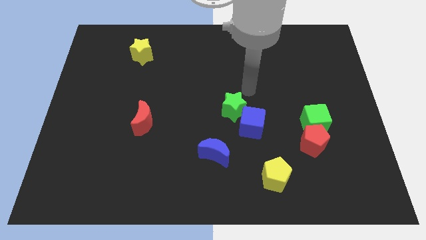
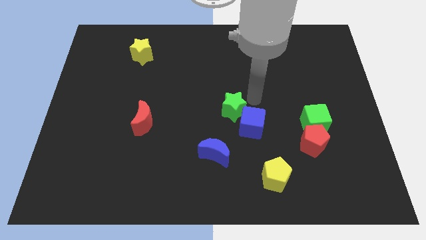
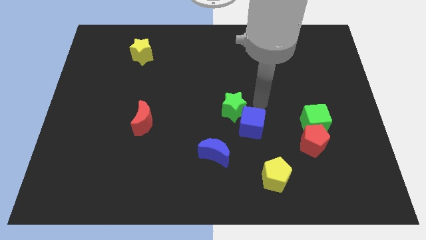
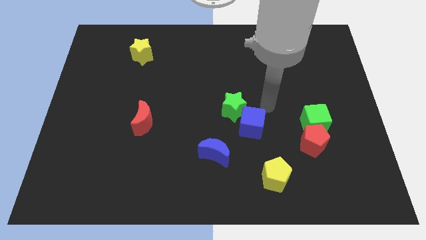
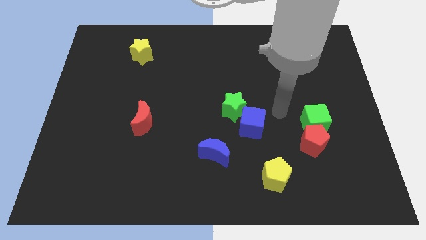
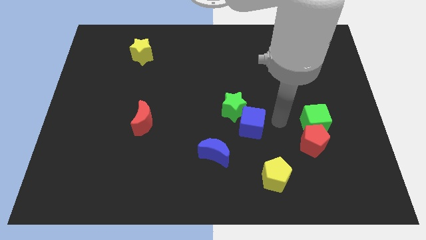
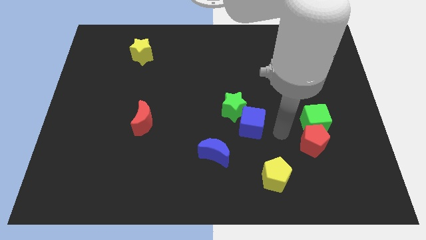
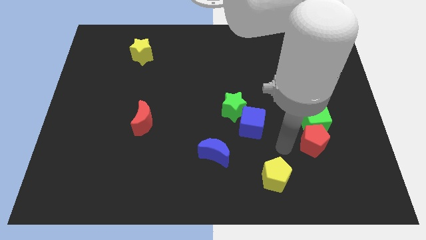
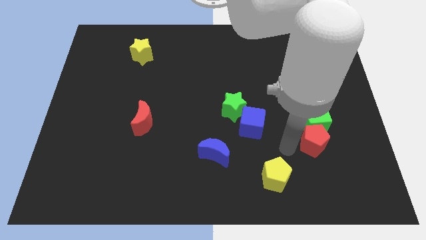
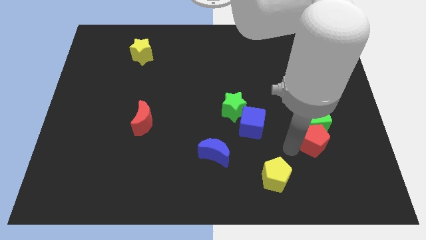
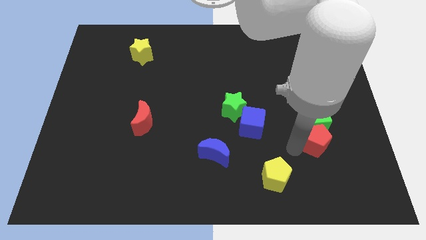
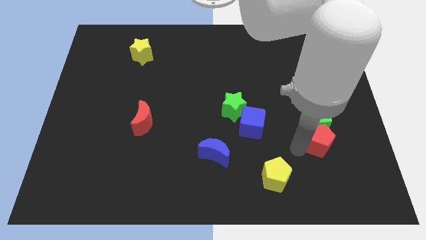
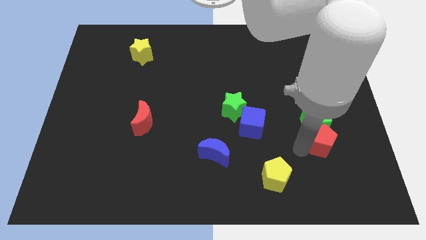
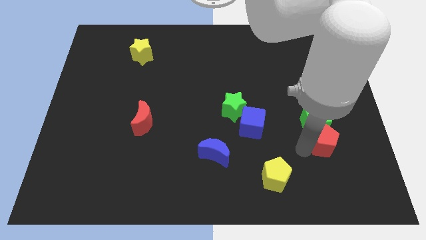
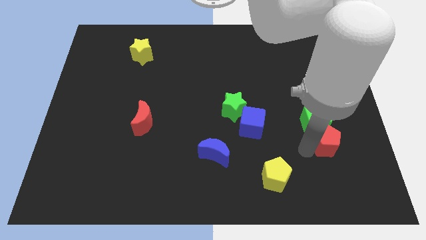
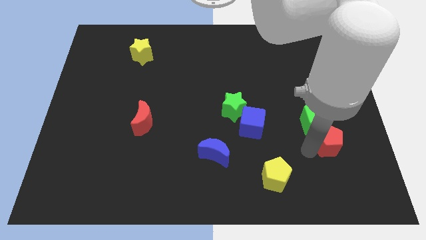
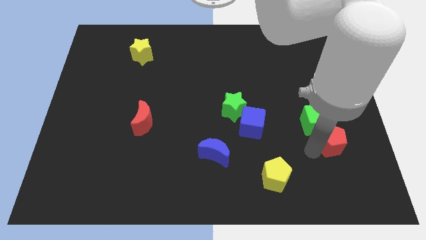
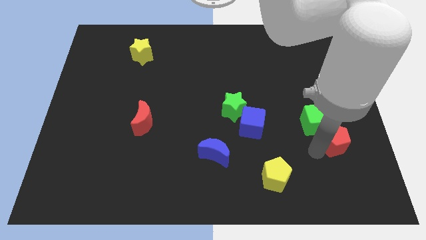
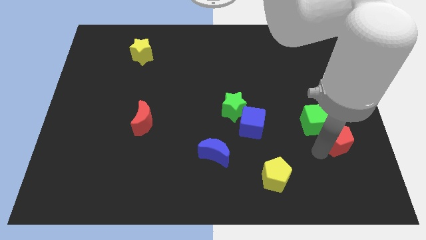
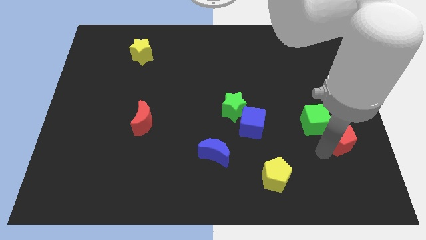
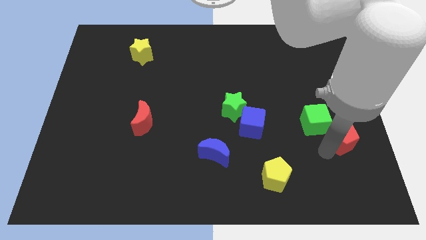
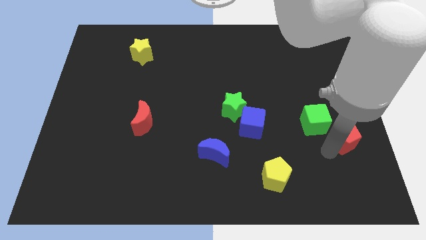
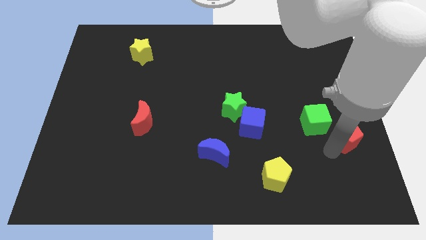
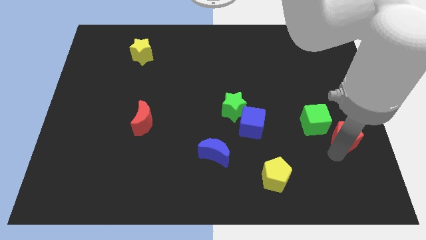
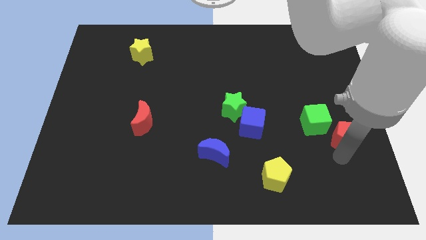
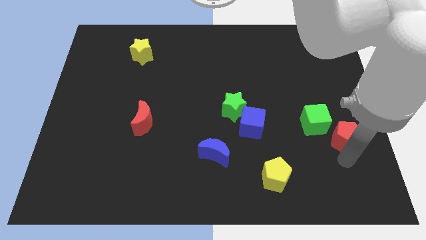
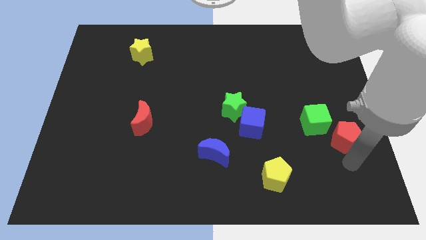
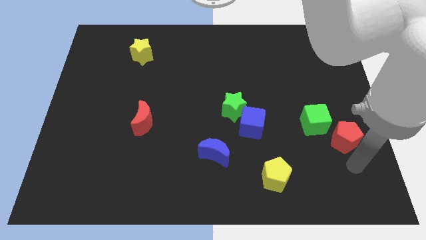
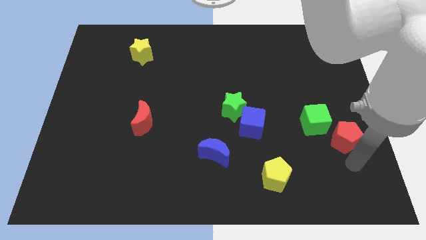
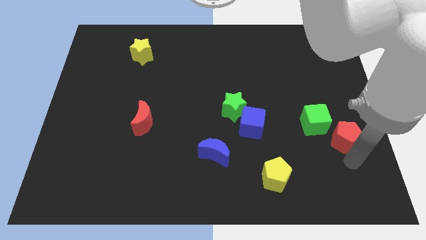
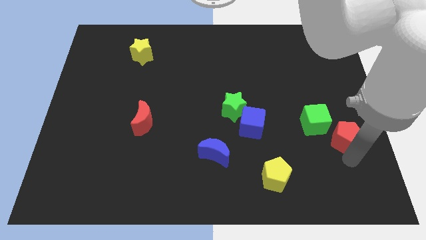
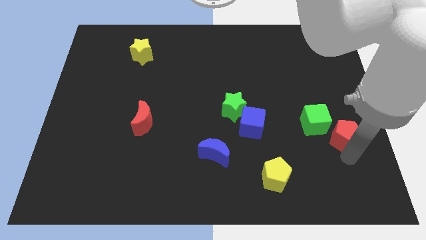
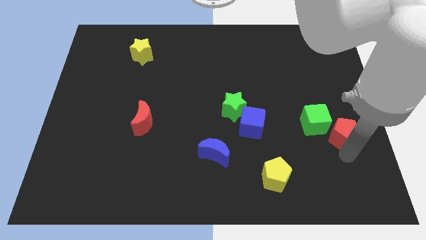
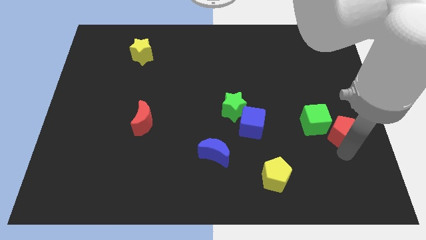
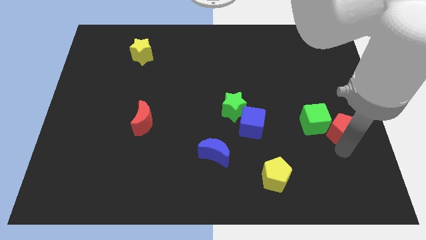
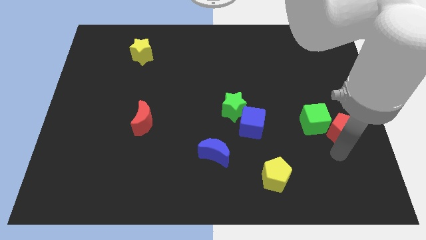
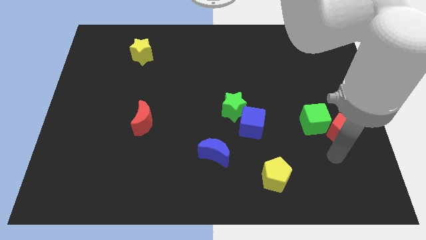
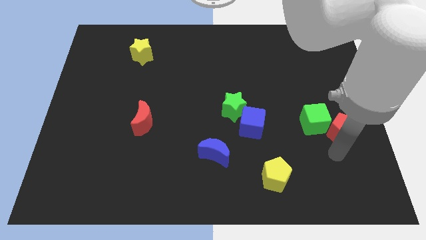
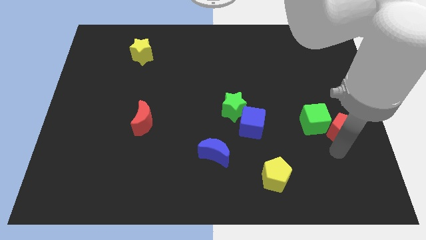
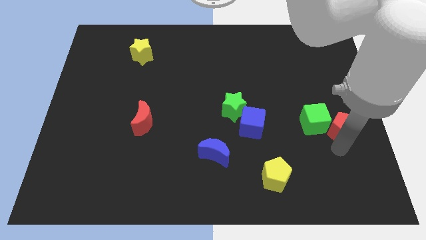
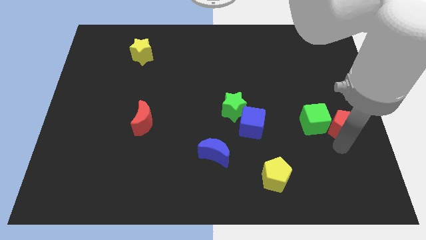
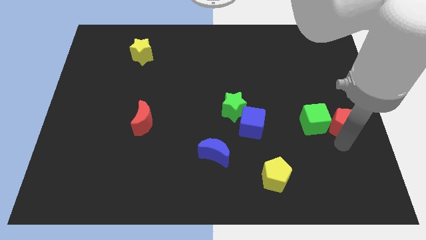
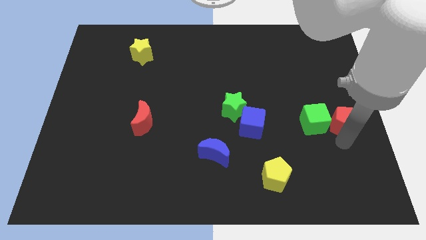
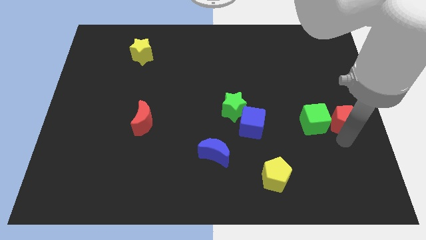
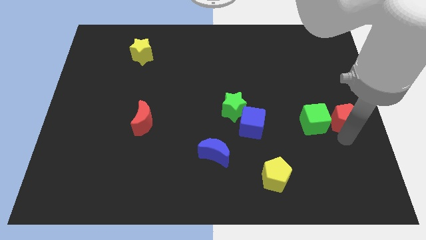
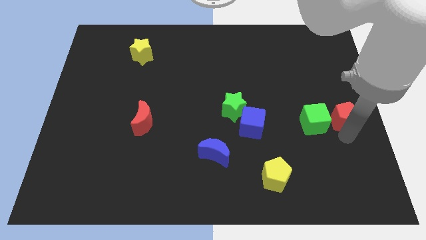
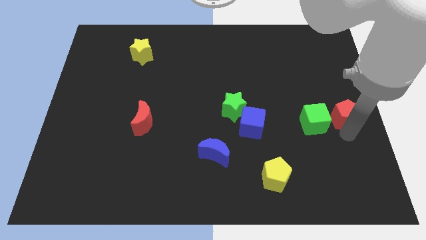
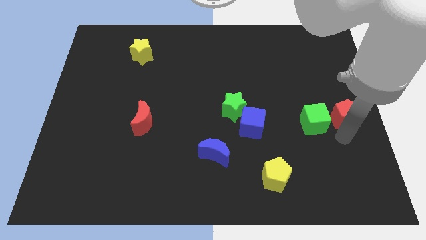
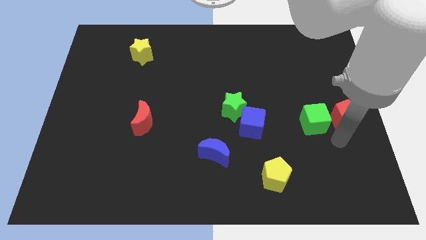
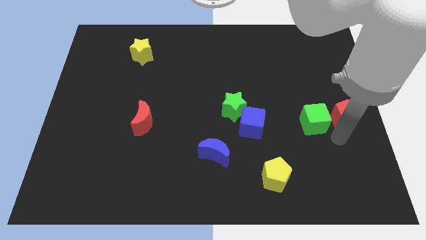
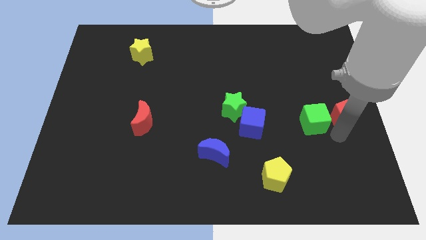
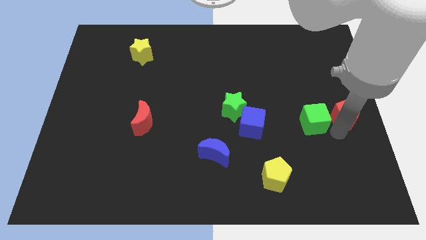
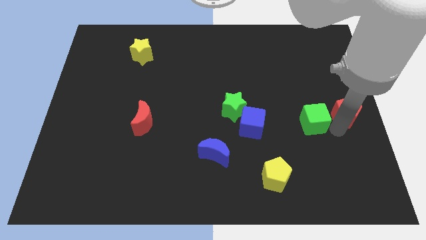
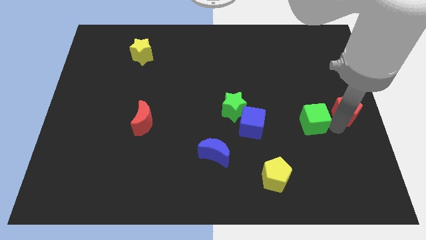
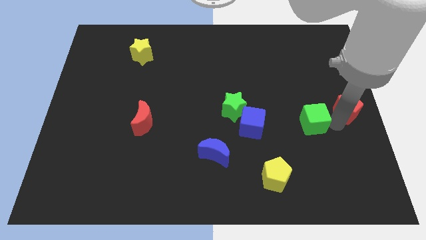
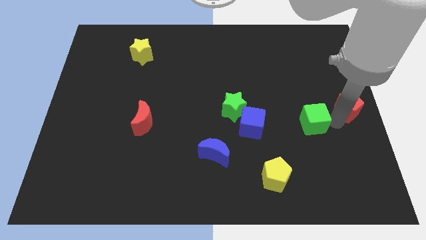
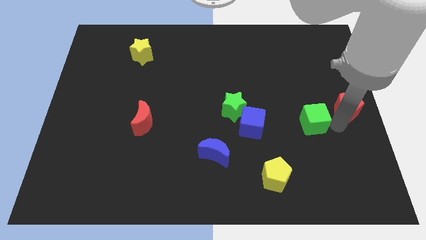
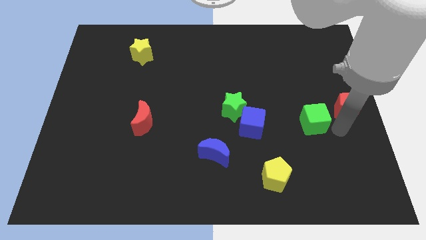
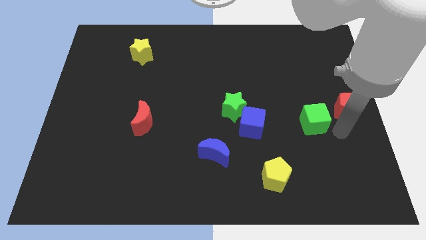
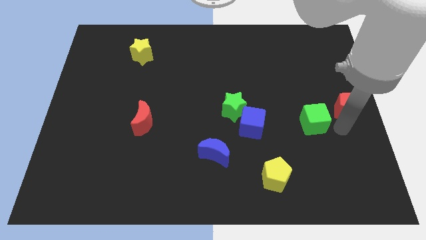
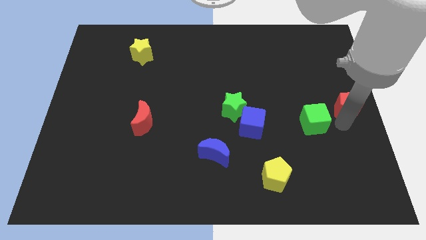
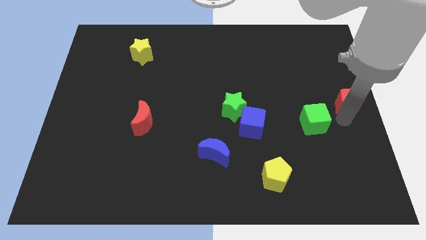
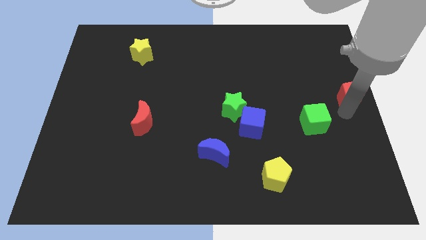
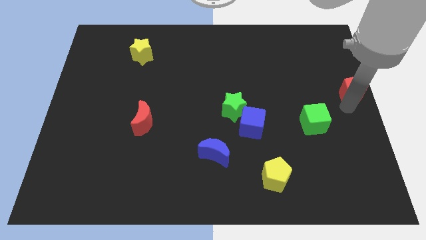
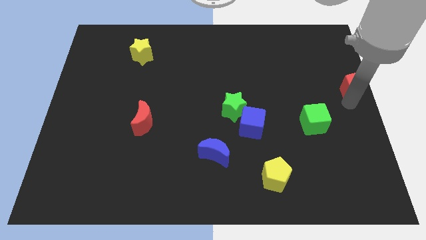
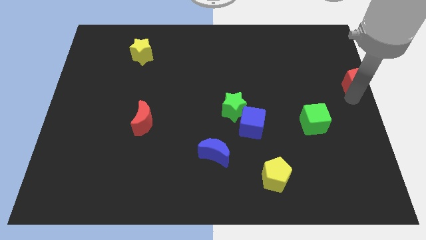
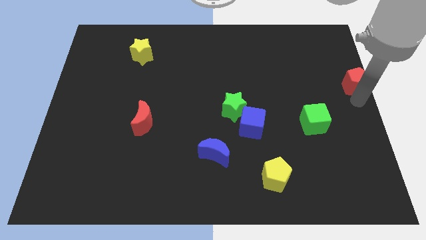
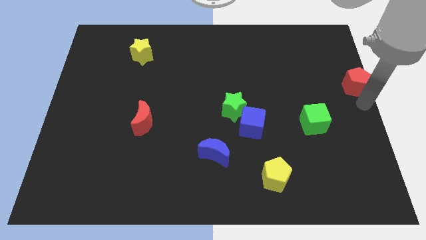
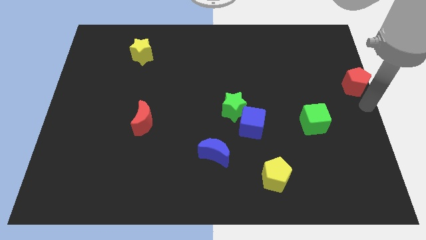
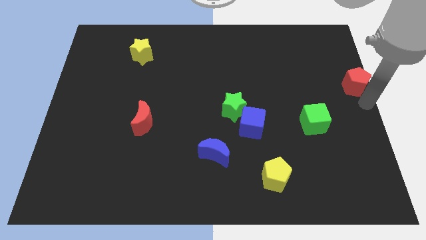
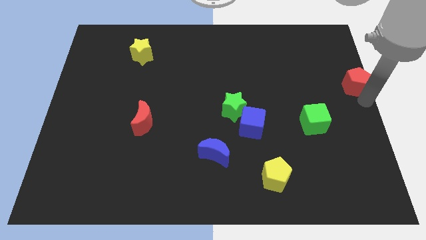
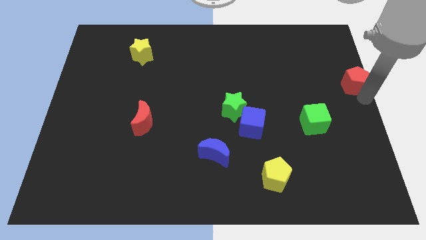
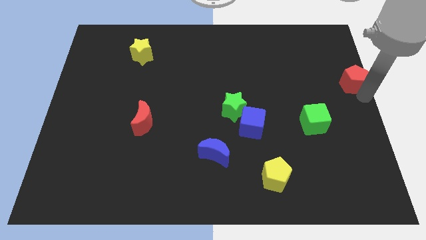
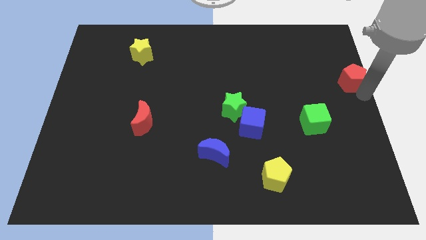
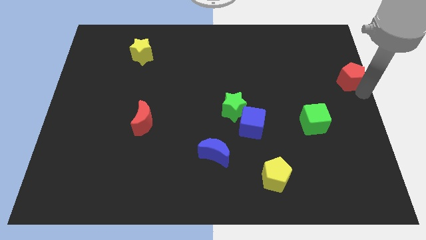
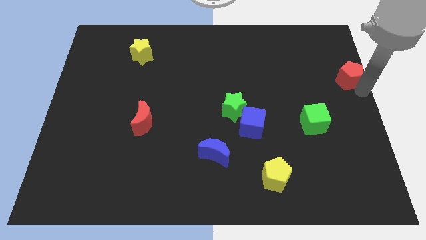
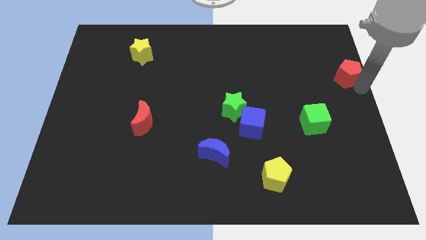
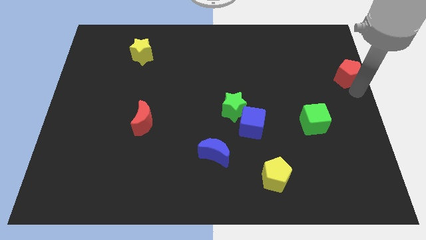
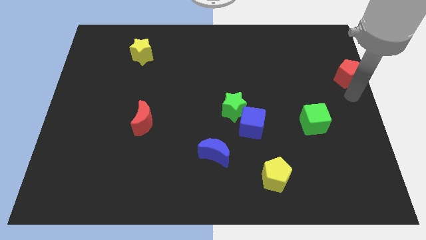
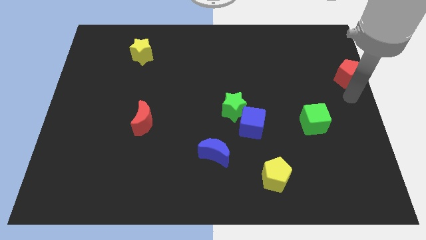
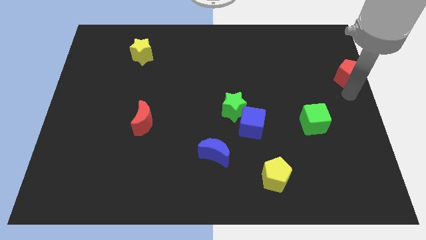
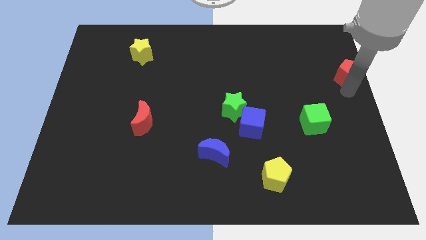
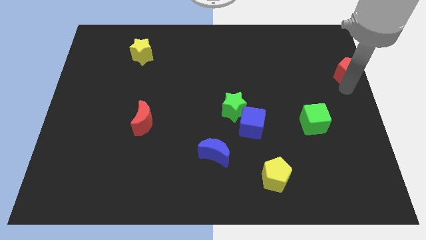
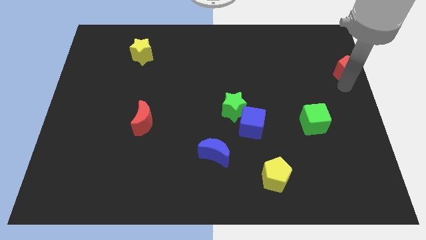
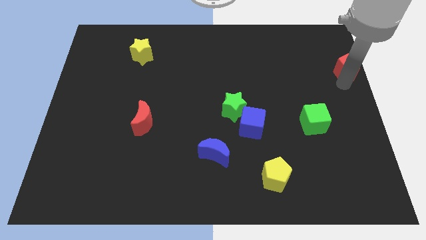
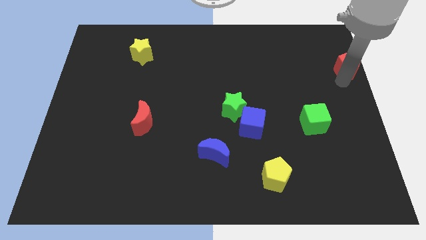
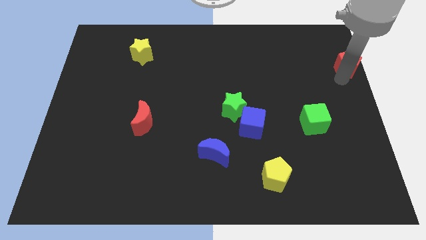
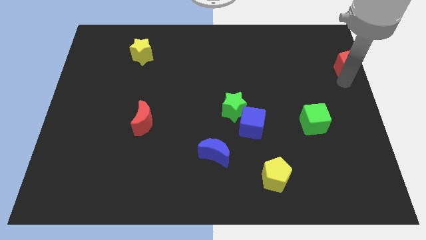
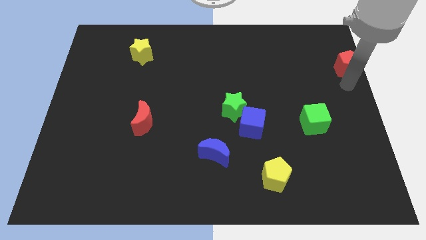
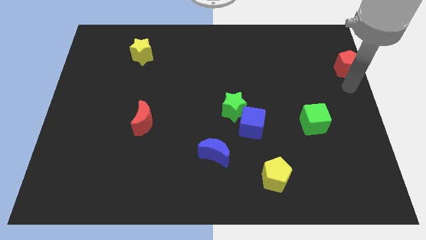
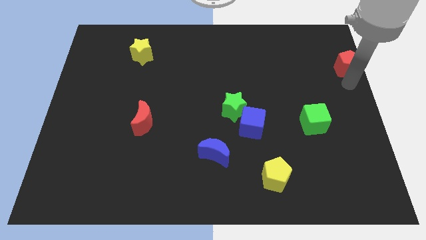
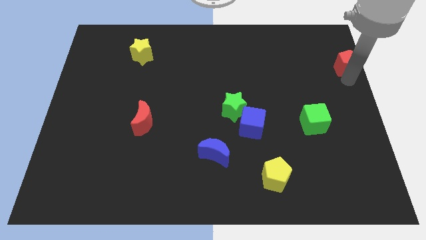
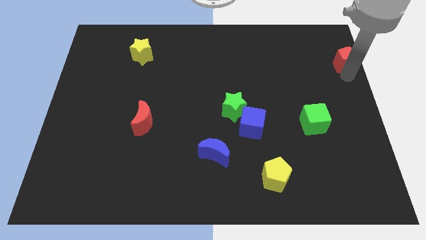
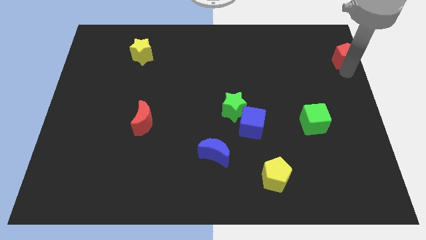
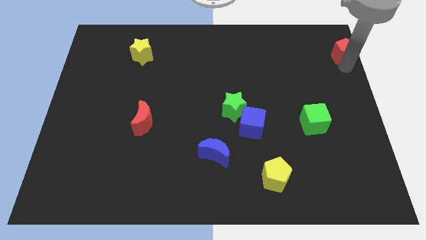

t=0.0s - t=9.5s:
push the red pentagon to the top right of the board
